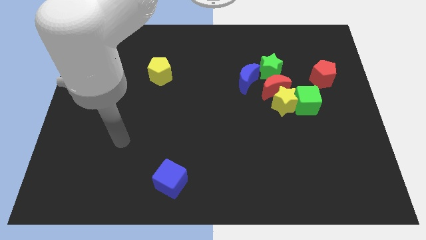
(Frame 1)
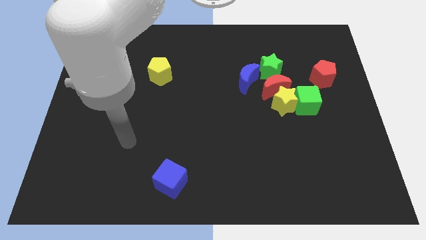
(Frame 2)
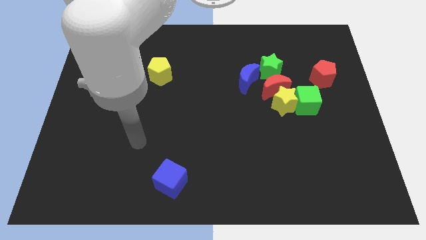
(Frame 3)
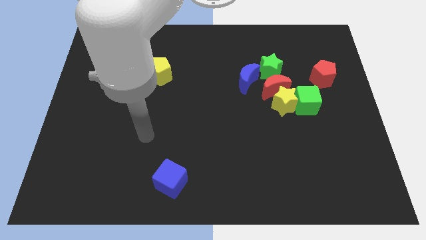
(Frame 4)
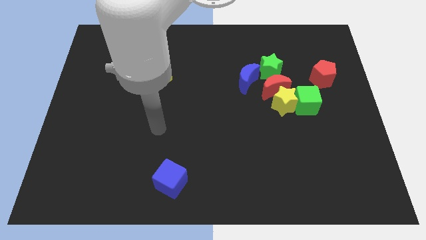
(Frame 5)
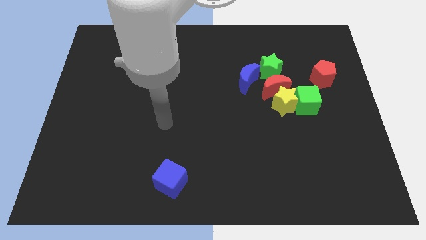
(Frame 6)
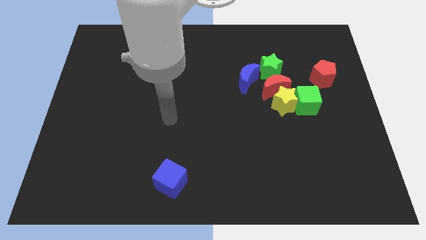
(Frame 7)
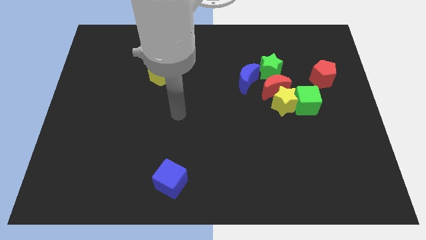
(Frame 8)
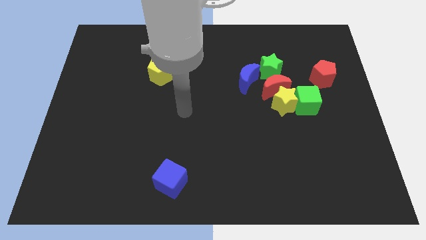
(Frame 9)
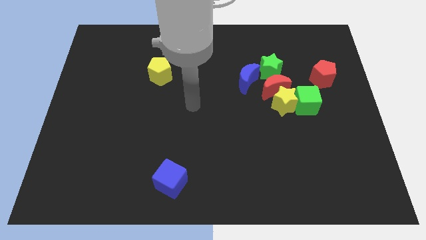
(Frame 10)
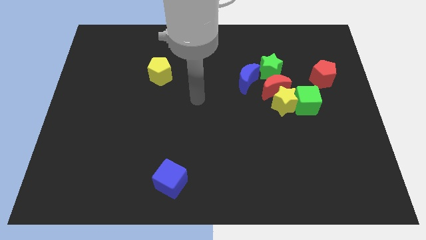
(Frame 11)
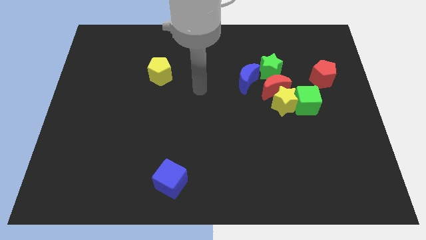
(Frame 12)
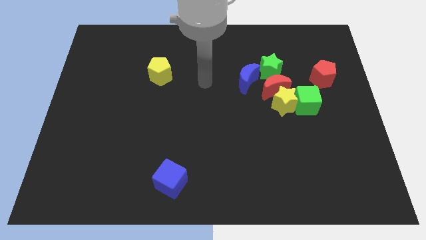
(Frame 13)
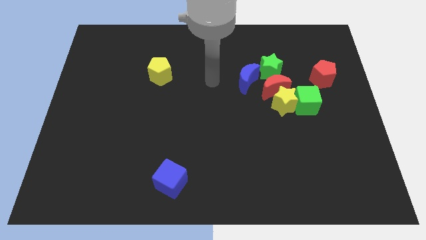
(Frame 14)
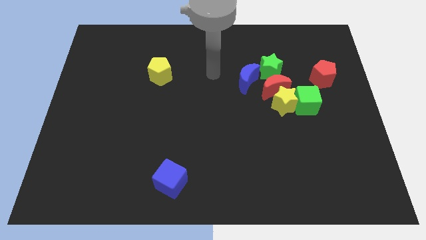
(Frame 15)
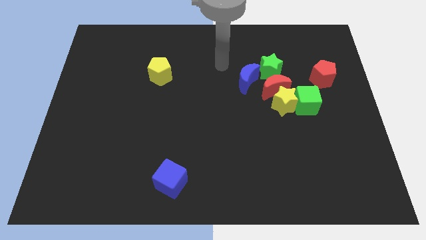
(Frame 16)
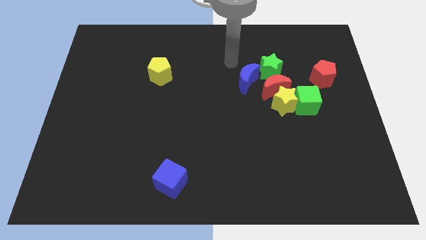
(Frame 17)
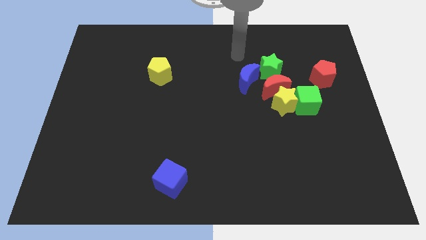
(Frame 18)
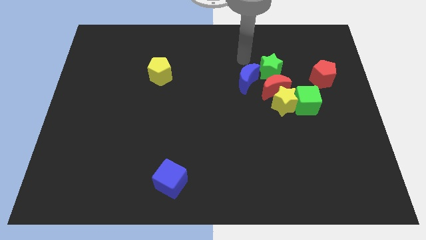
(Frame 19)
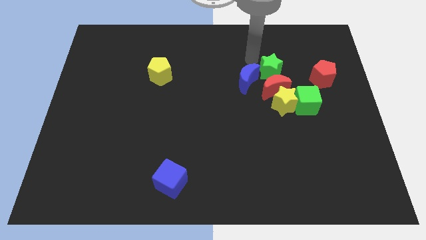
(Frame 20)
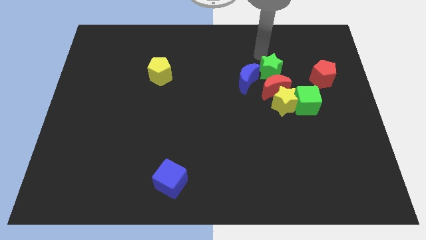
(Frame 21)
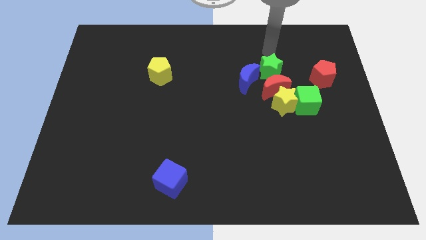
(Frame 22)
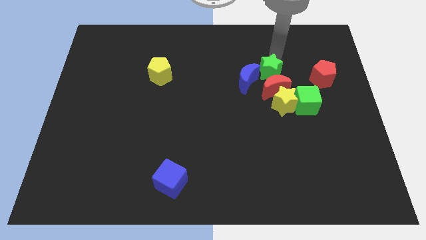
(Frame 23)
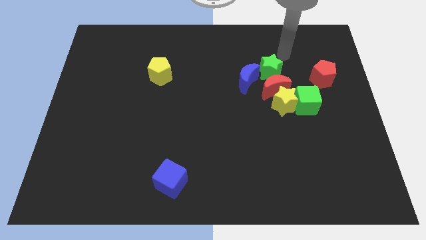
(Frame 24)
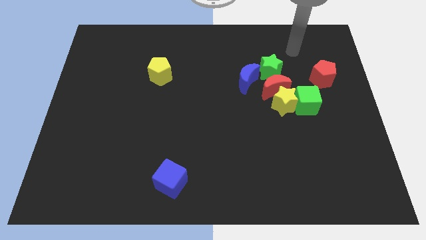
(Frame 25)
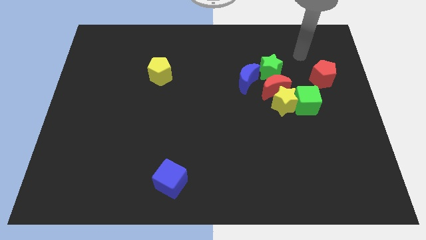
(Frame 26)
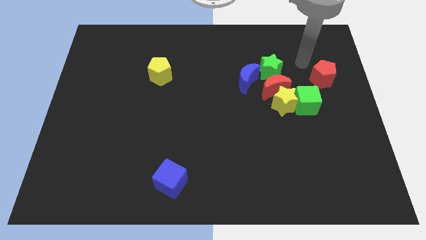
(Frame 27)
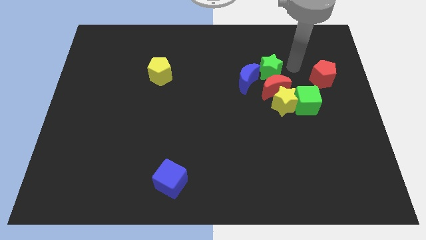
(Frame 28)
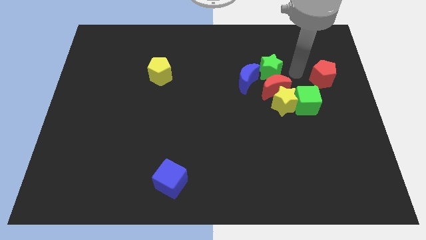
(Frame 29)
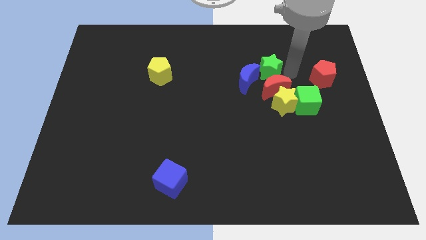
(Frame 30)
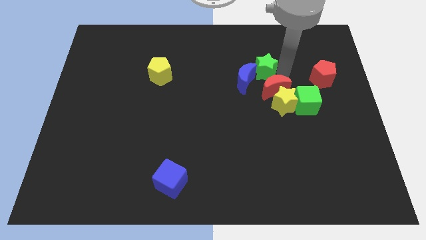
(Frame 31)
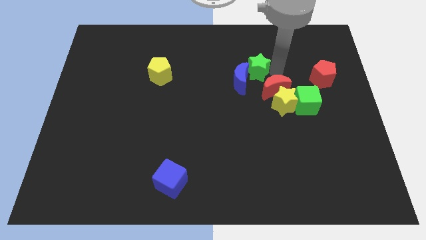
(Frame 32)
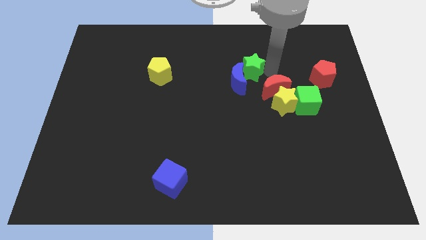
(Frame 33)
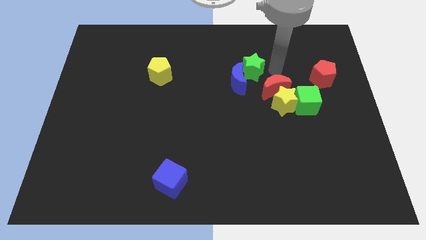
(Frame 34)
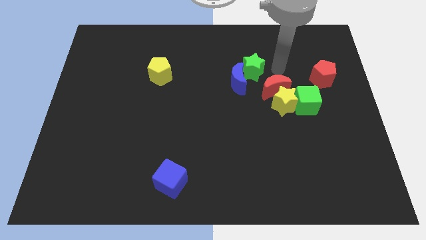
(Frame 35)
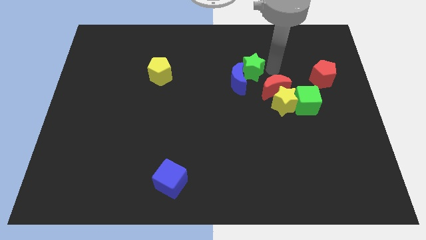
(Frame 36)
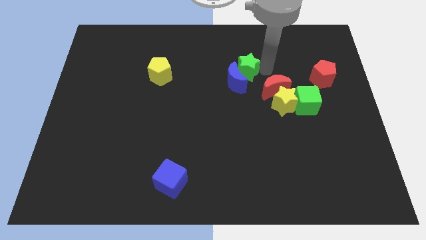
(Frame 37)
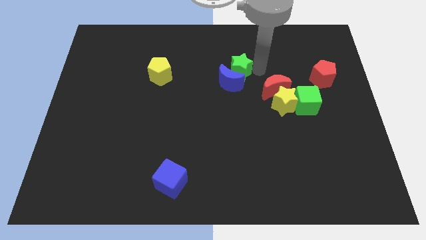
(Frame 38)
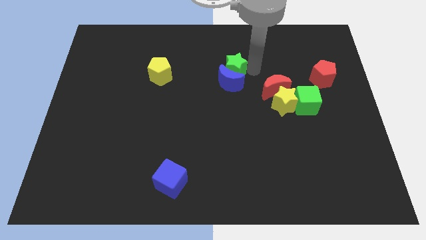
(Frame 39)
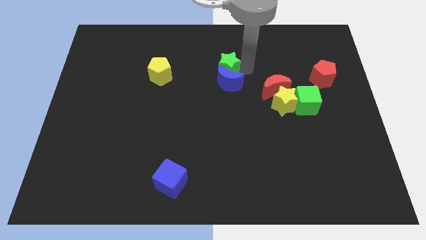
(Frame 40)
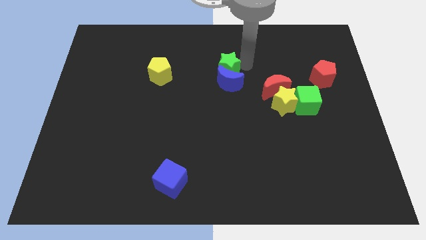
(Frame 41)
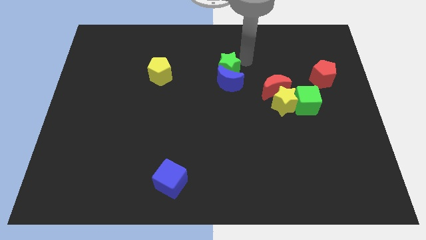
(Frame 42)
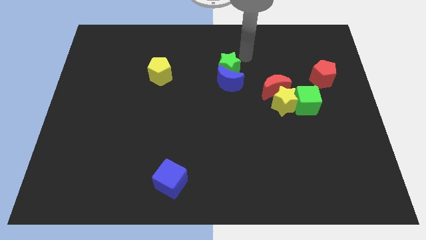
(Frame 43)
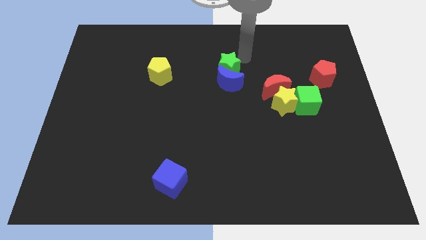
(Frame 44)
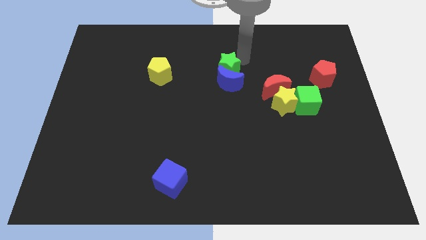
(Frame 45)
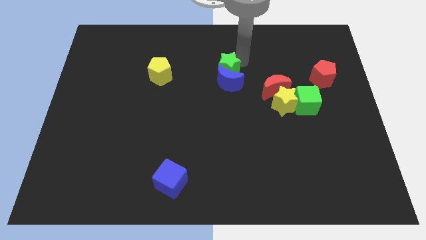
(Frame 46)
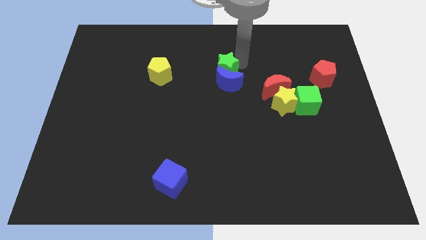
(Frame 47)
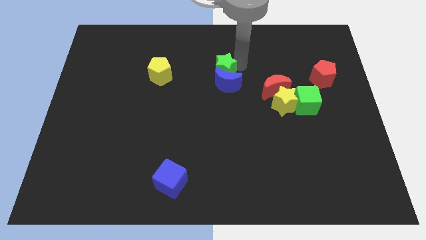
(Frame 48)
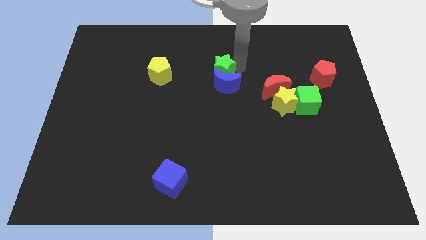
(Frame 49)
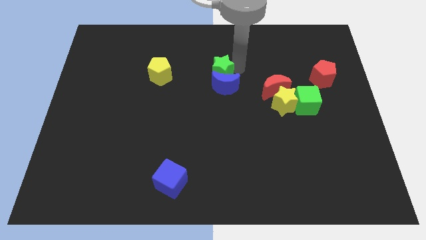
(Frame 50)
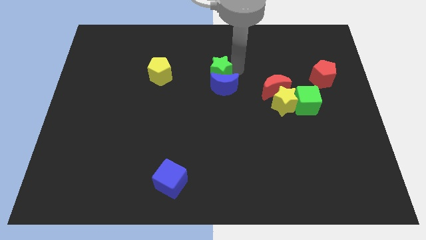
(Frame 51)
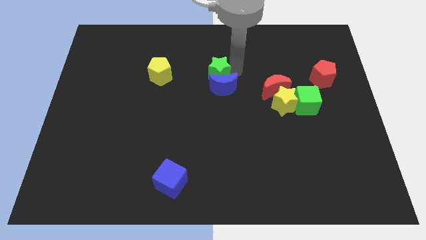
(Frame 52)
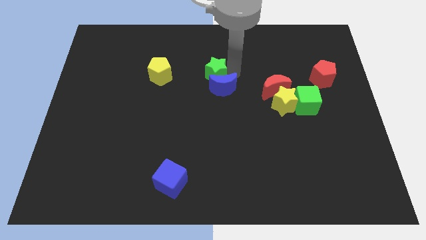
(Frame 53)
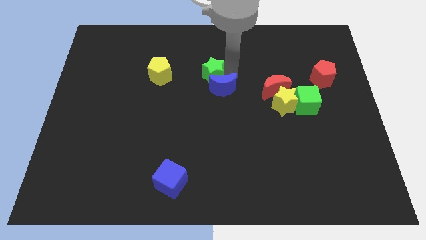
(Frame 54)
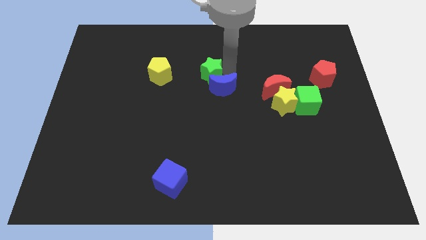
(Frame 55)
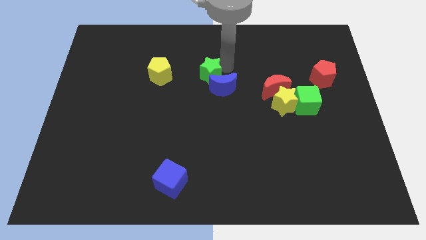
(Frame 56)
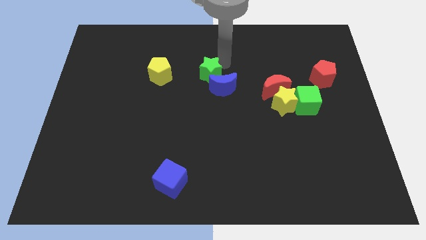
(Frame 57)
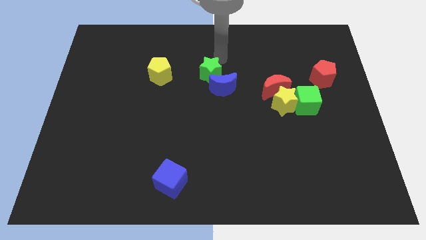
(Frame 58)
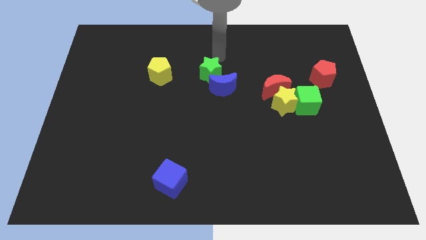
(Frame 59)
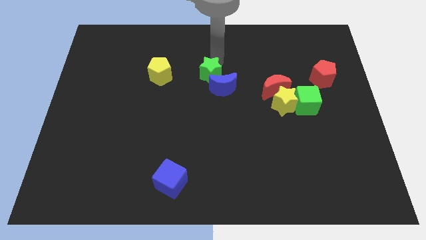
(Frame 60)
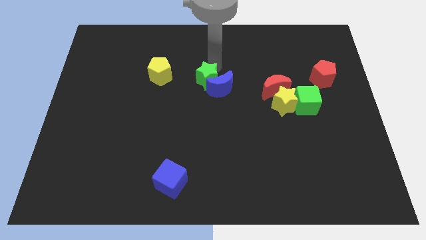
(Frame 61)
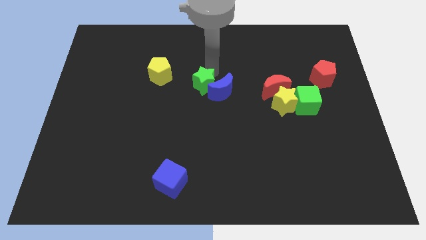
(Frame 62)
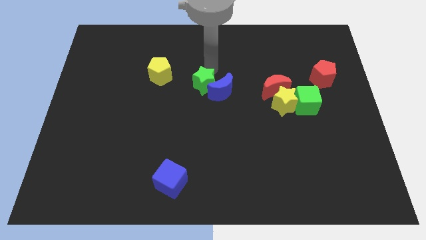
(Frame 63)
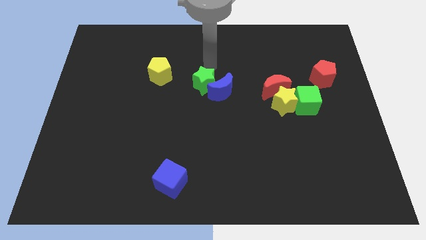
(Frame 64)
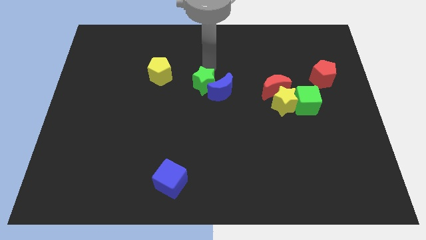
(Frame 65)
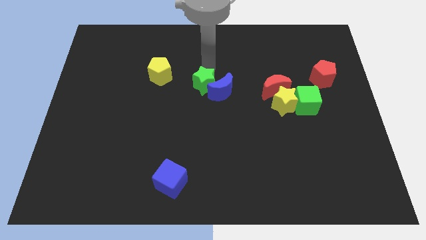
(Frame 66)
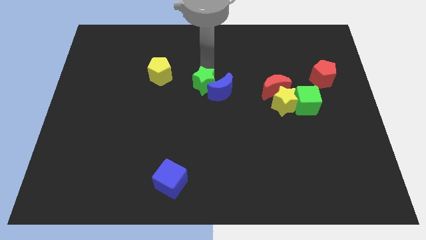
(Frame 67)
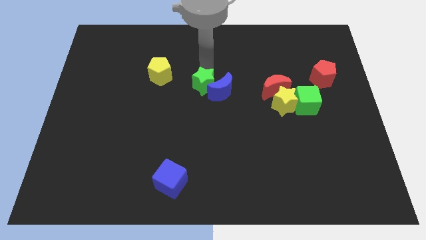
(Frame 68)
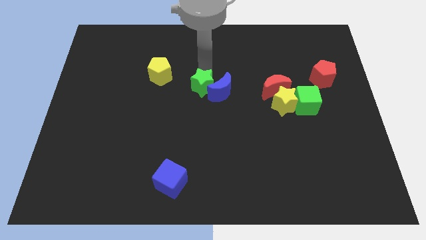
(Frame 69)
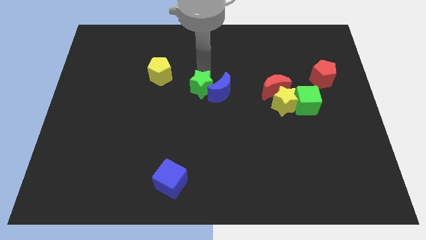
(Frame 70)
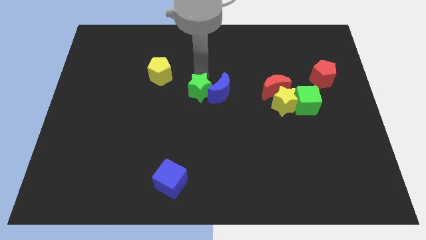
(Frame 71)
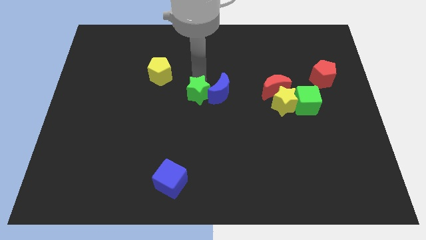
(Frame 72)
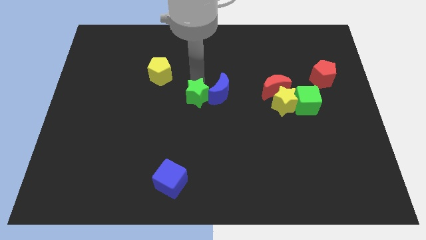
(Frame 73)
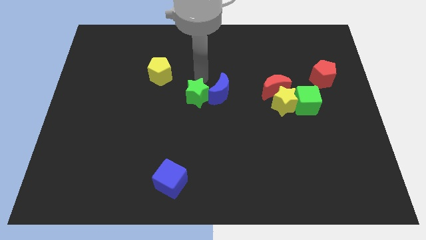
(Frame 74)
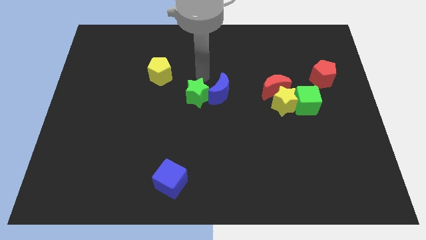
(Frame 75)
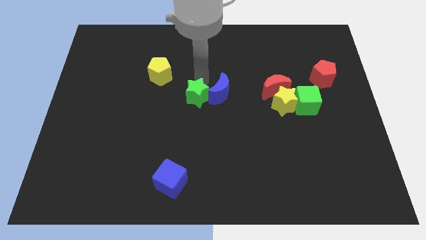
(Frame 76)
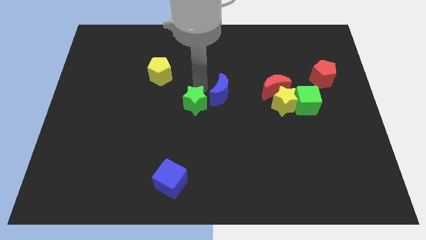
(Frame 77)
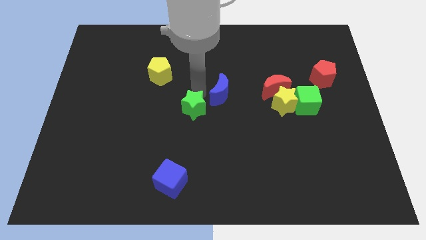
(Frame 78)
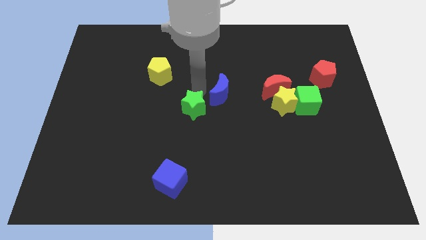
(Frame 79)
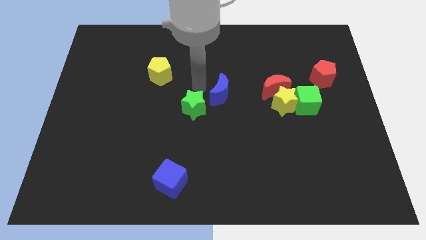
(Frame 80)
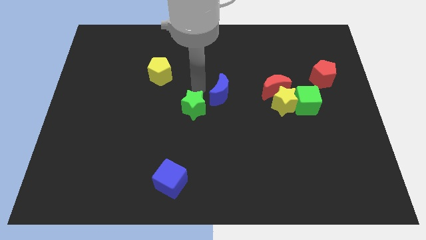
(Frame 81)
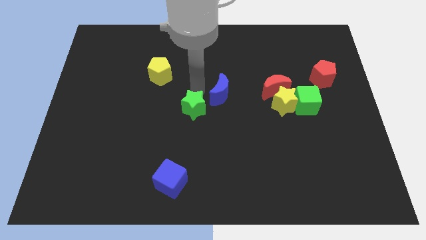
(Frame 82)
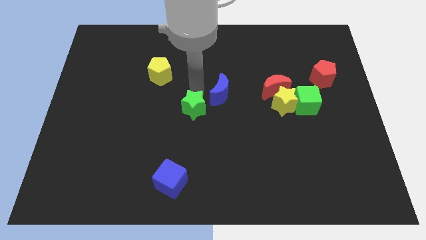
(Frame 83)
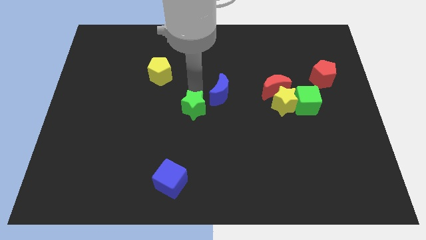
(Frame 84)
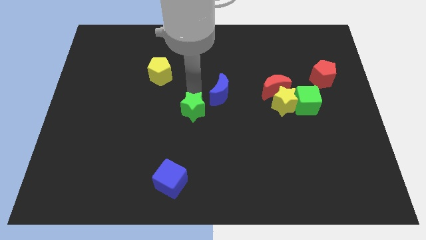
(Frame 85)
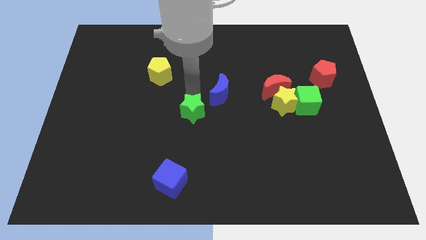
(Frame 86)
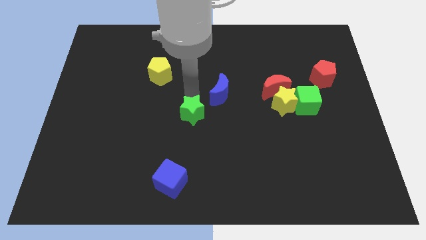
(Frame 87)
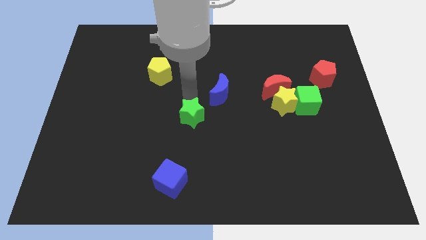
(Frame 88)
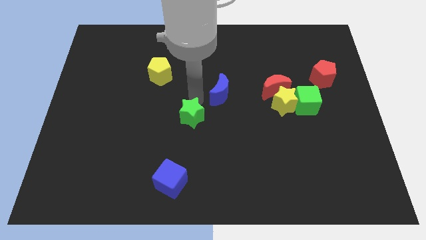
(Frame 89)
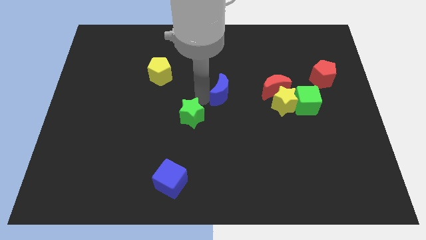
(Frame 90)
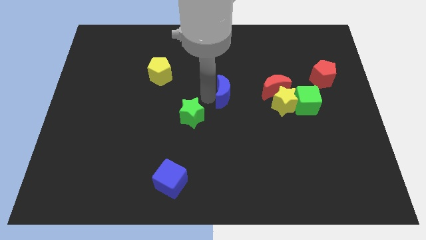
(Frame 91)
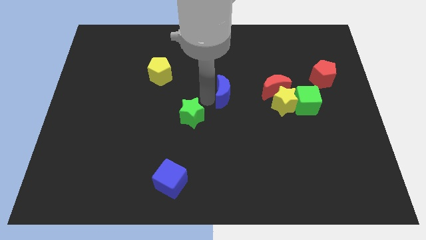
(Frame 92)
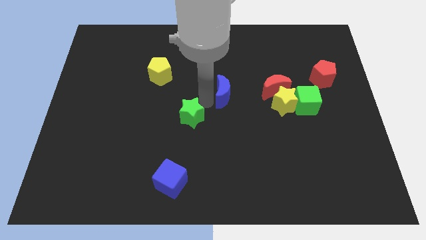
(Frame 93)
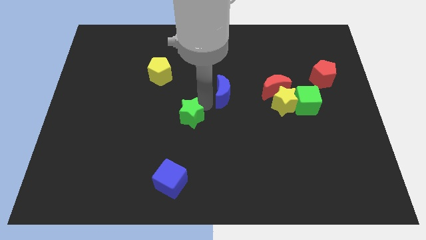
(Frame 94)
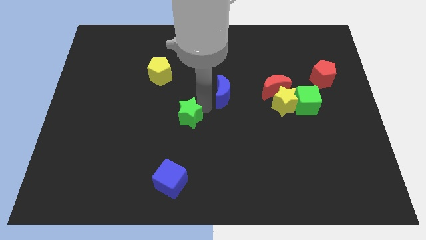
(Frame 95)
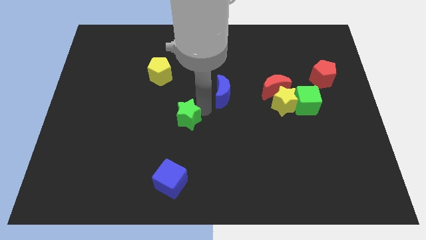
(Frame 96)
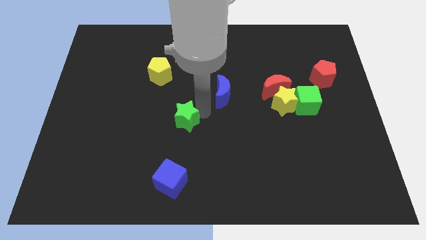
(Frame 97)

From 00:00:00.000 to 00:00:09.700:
put the green star to the top of the blue cube
